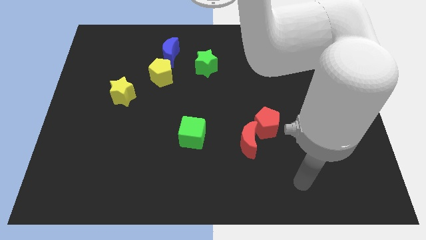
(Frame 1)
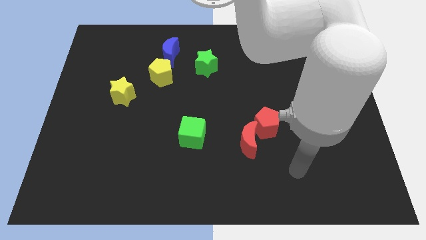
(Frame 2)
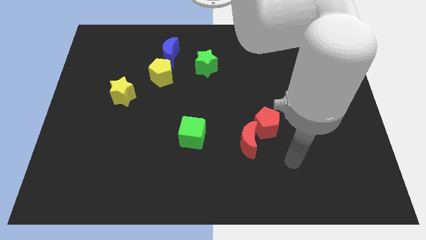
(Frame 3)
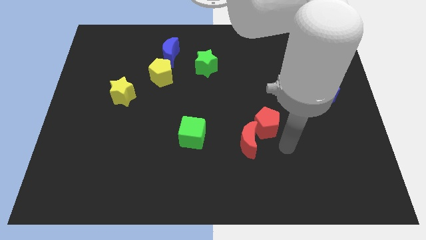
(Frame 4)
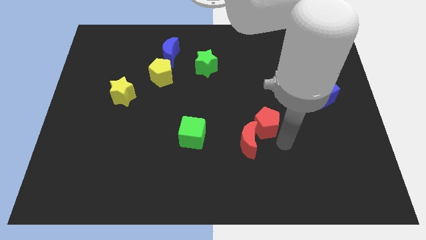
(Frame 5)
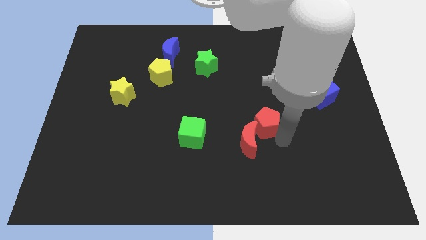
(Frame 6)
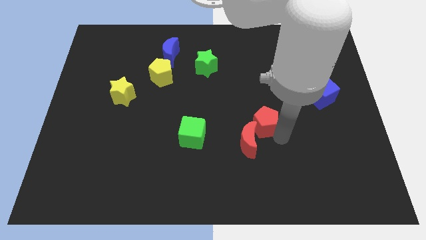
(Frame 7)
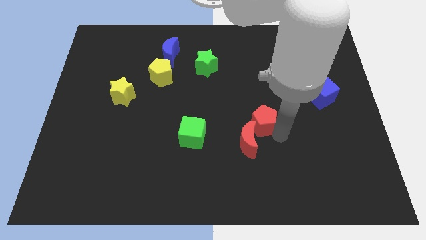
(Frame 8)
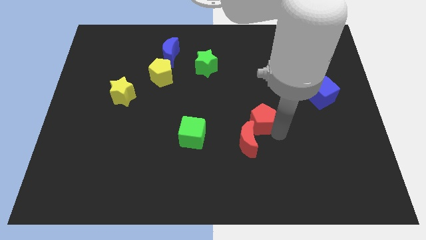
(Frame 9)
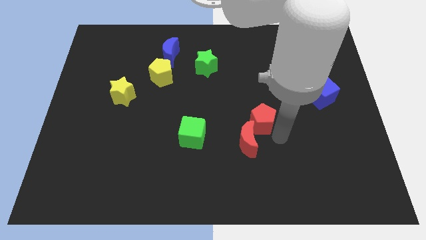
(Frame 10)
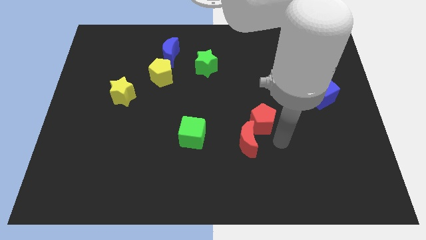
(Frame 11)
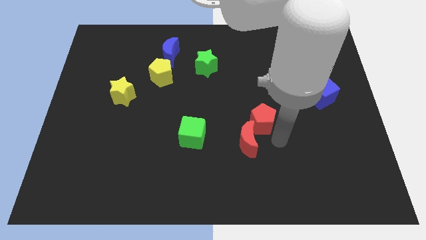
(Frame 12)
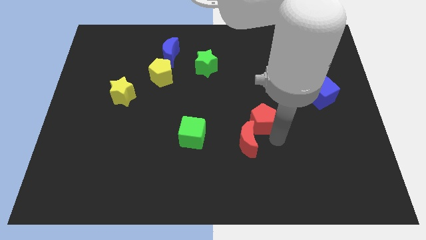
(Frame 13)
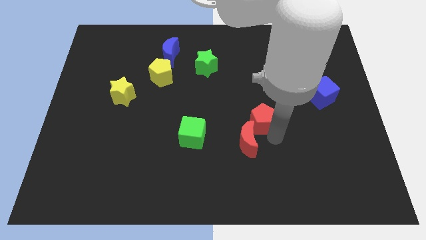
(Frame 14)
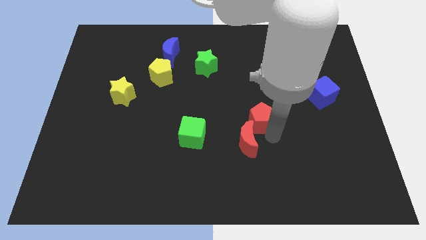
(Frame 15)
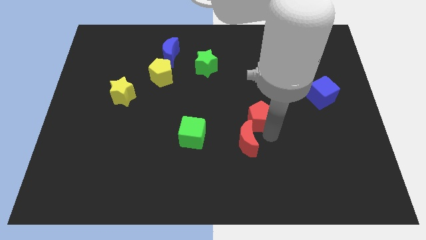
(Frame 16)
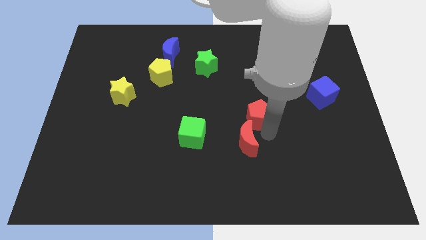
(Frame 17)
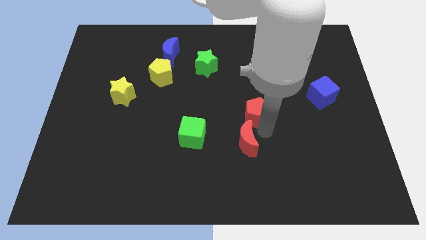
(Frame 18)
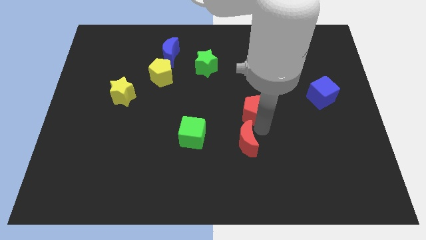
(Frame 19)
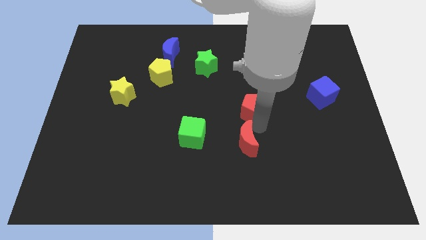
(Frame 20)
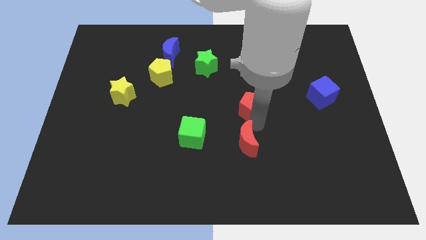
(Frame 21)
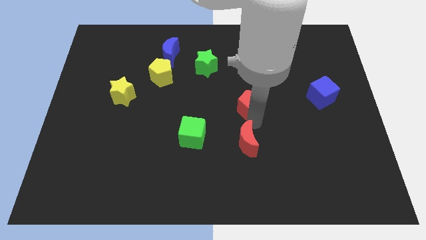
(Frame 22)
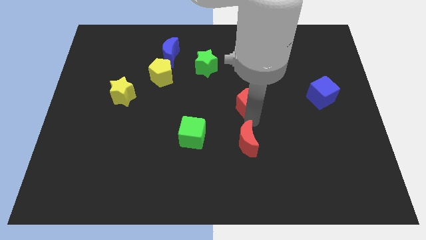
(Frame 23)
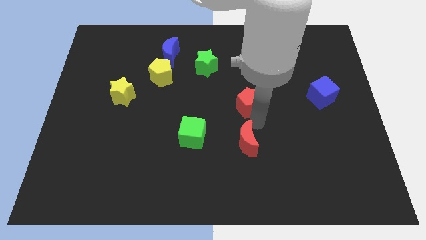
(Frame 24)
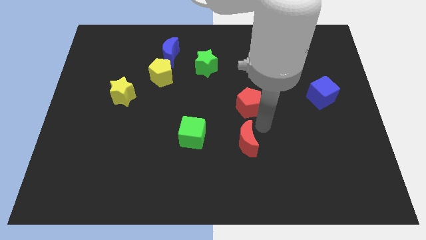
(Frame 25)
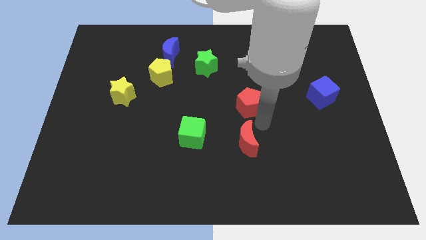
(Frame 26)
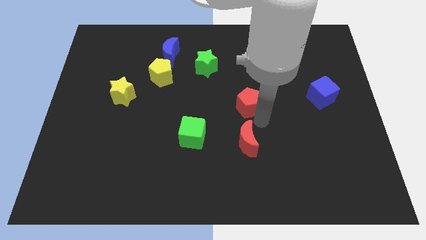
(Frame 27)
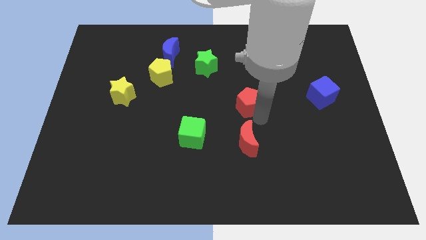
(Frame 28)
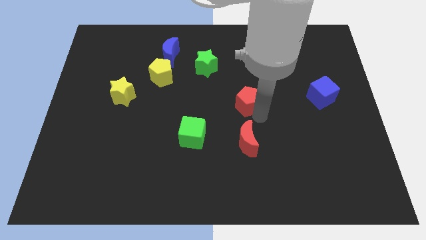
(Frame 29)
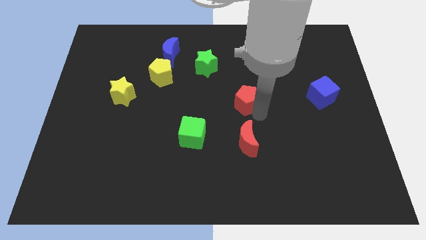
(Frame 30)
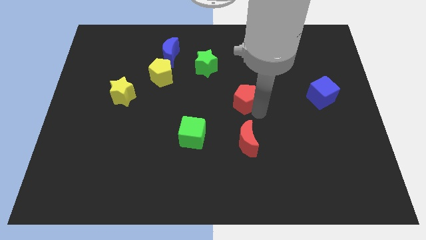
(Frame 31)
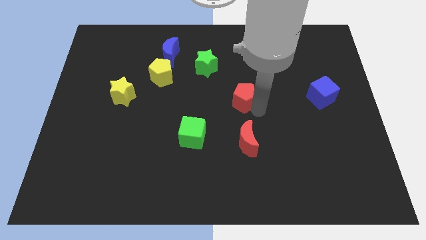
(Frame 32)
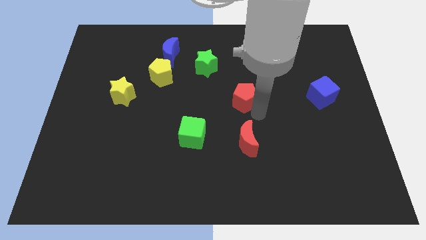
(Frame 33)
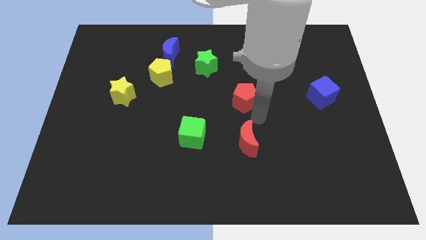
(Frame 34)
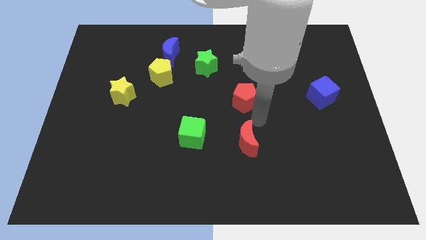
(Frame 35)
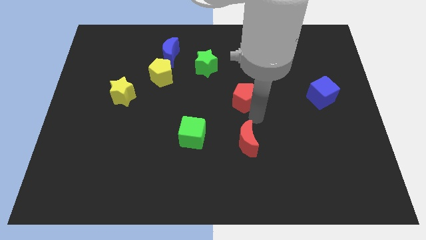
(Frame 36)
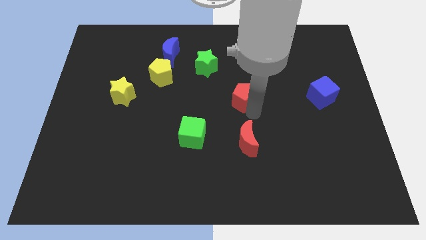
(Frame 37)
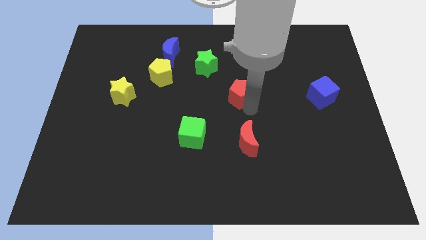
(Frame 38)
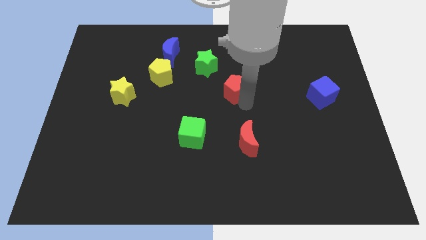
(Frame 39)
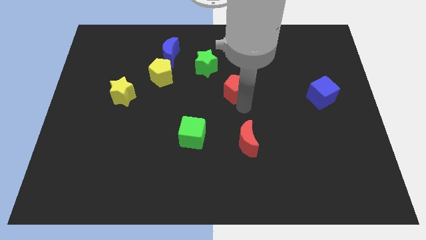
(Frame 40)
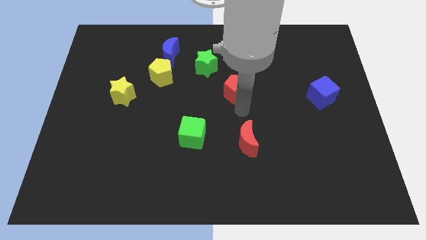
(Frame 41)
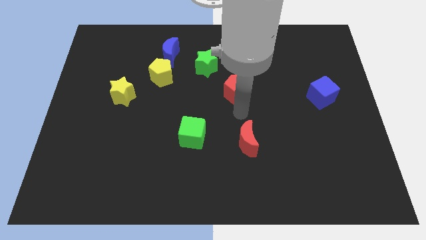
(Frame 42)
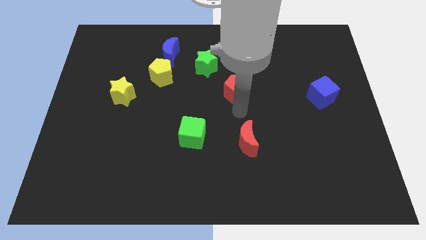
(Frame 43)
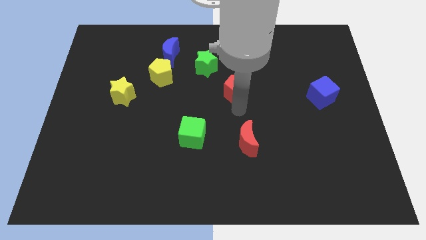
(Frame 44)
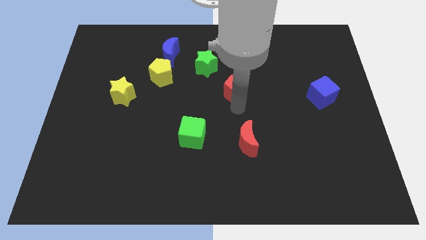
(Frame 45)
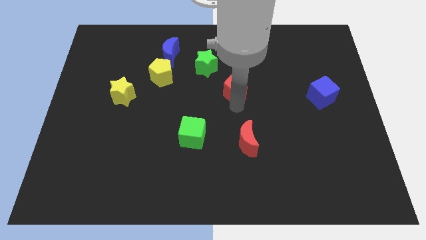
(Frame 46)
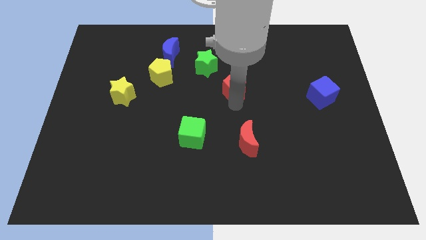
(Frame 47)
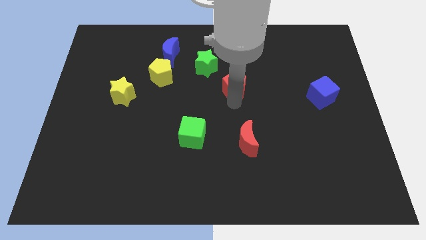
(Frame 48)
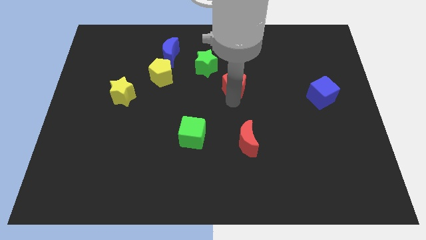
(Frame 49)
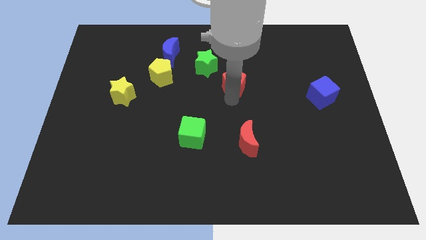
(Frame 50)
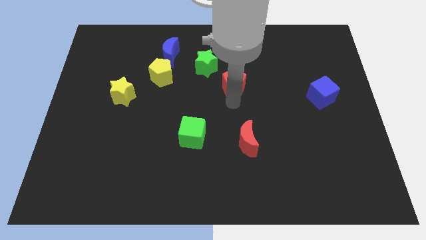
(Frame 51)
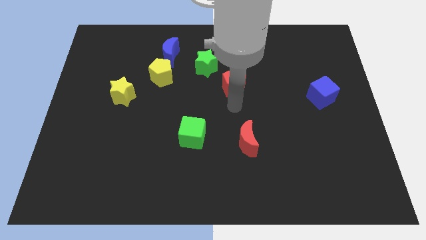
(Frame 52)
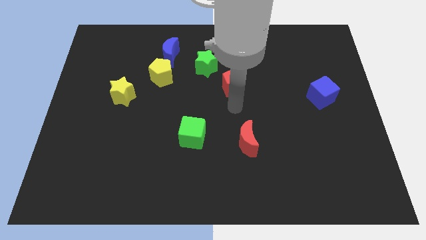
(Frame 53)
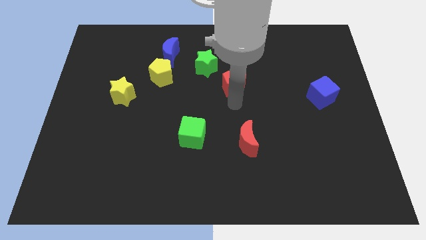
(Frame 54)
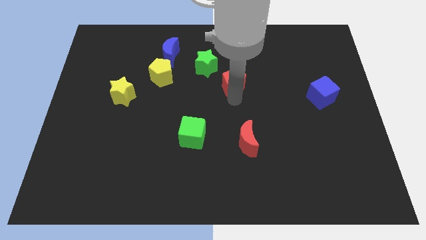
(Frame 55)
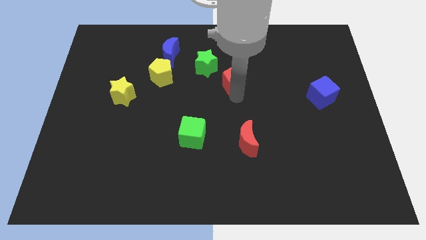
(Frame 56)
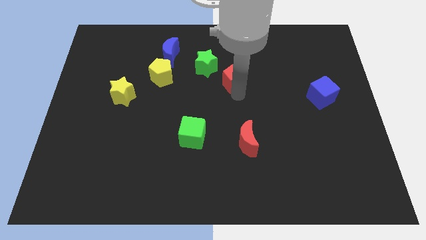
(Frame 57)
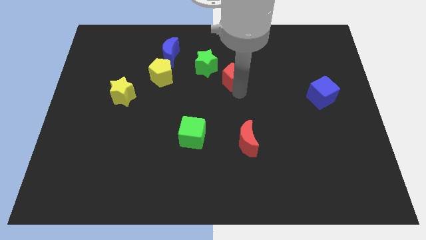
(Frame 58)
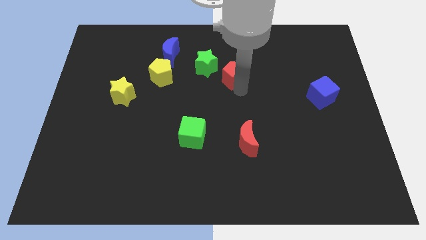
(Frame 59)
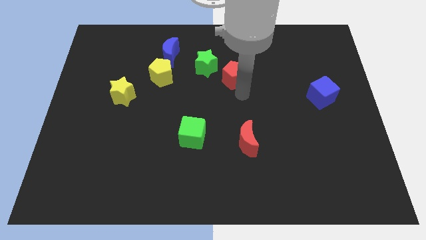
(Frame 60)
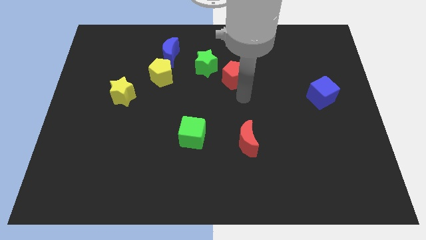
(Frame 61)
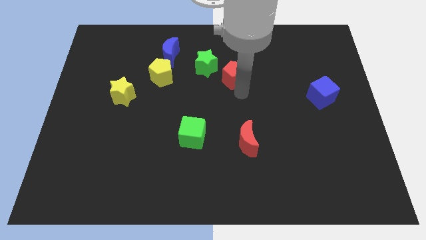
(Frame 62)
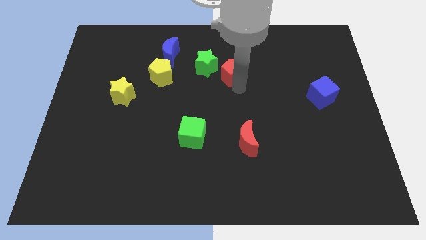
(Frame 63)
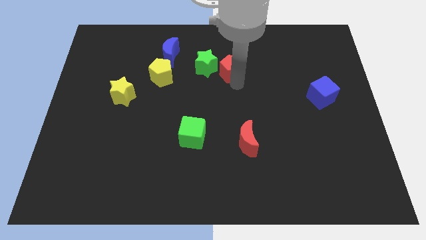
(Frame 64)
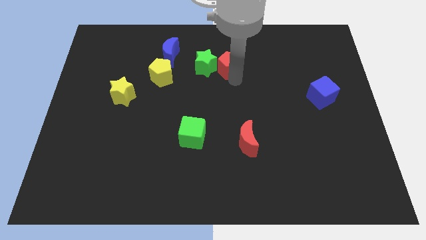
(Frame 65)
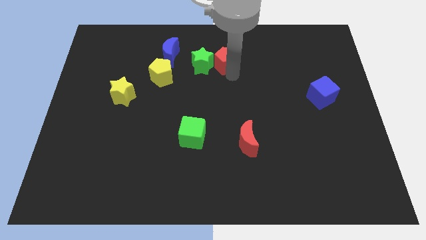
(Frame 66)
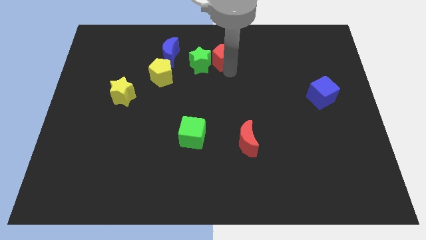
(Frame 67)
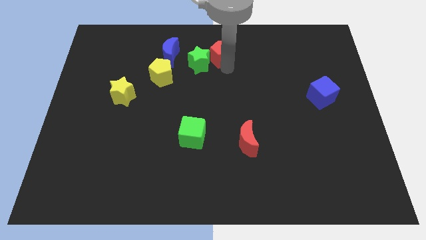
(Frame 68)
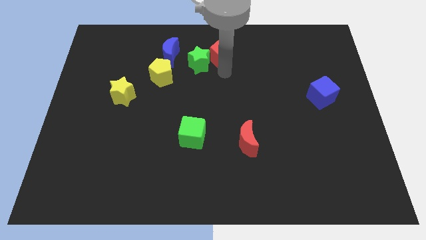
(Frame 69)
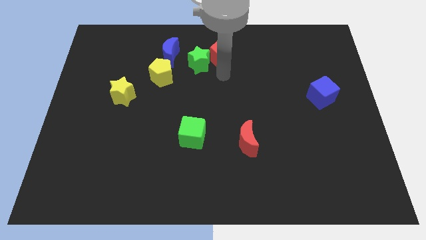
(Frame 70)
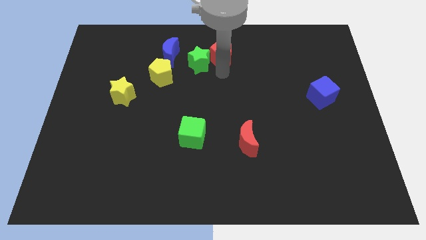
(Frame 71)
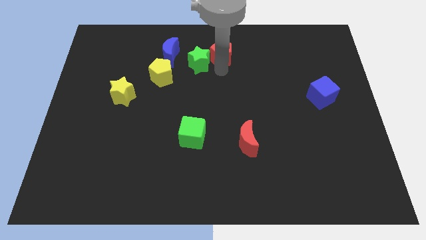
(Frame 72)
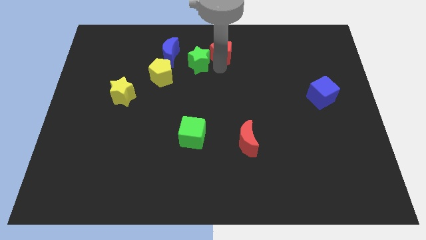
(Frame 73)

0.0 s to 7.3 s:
push the red pentagon to the towards your base

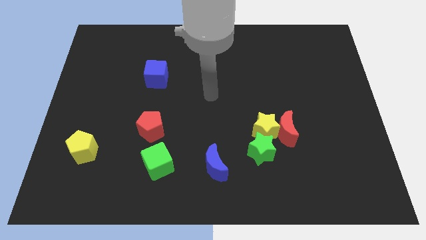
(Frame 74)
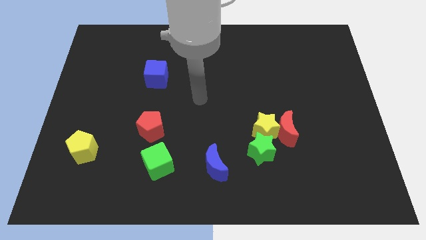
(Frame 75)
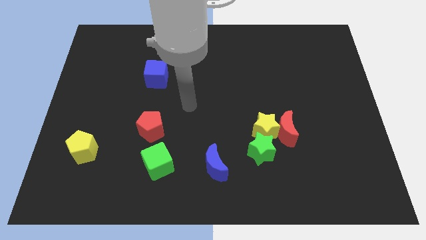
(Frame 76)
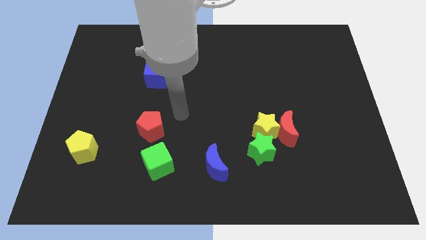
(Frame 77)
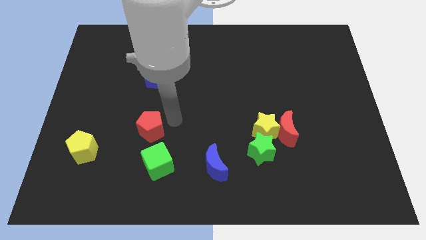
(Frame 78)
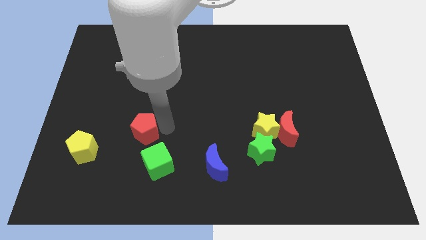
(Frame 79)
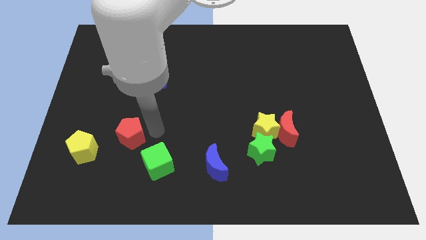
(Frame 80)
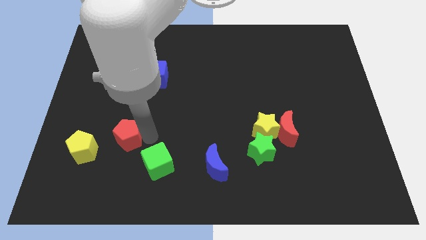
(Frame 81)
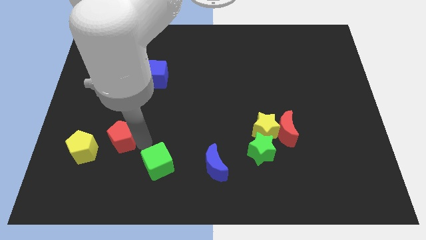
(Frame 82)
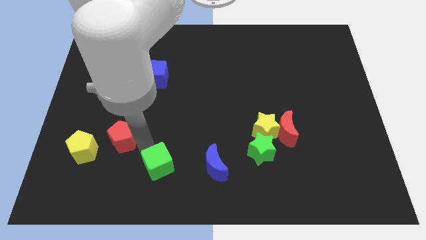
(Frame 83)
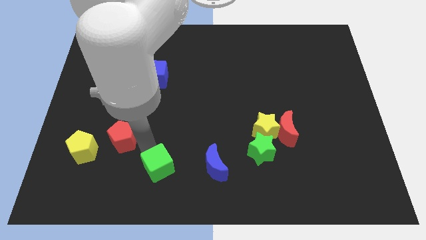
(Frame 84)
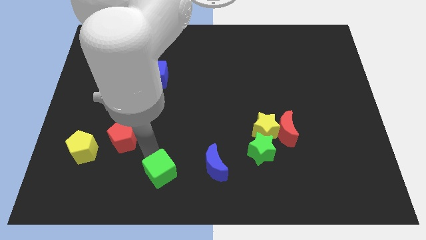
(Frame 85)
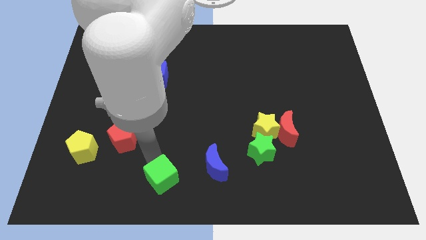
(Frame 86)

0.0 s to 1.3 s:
move the green cube to the bottom side
